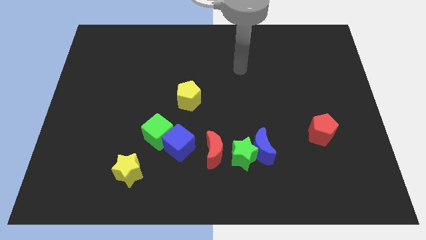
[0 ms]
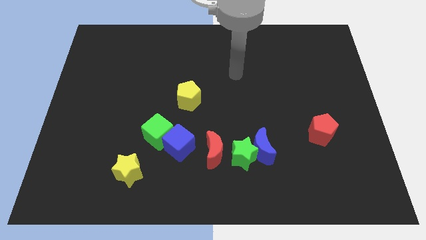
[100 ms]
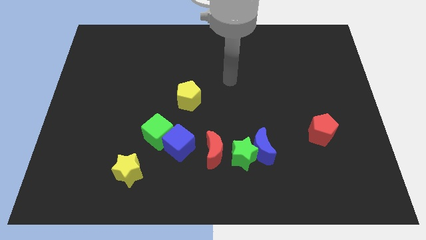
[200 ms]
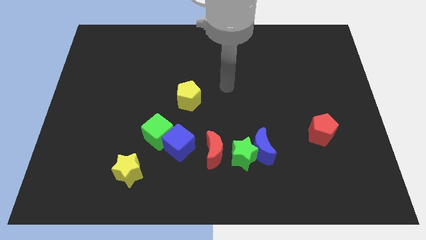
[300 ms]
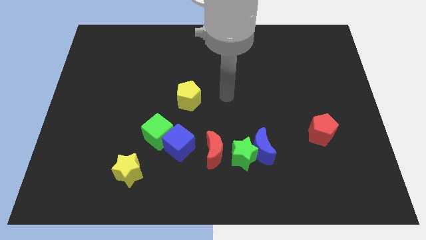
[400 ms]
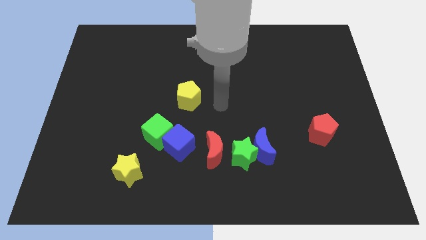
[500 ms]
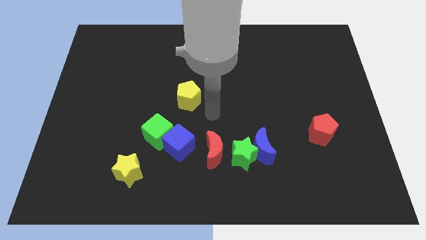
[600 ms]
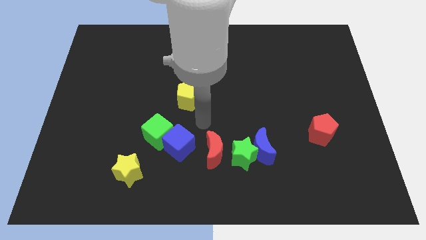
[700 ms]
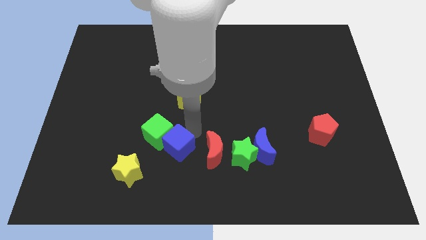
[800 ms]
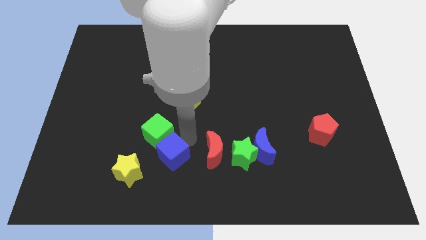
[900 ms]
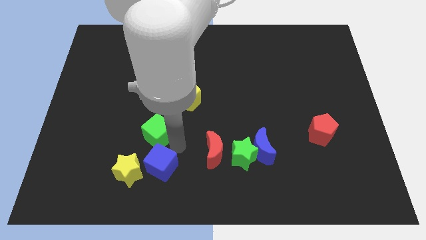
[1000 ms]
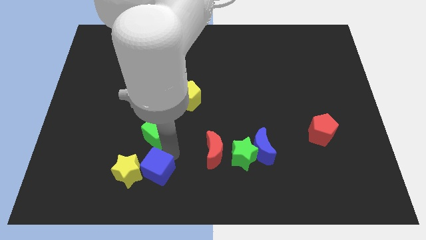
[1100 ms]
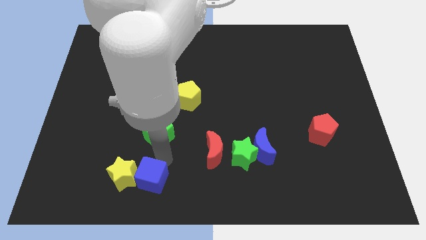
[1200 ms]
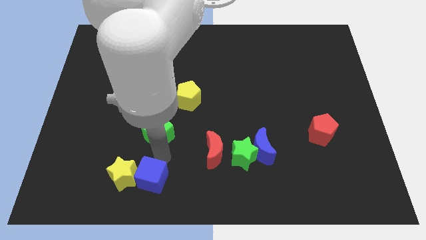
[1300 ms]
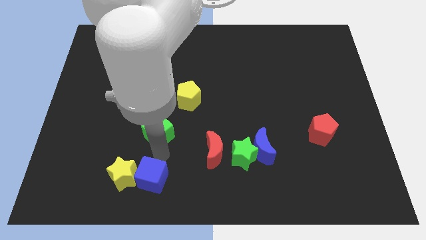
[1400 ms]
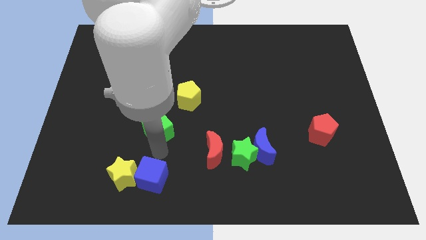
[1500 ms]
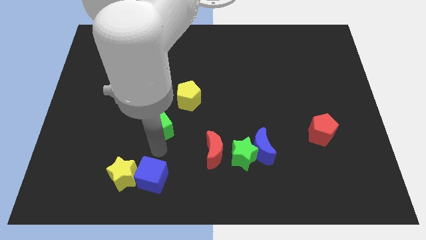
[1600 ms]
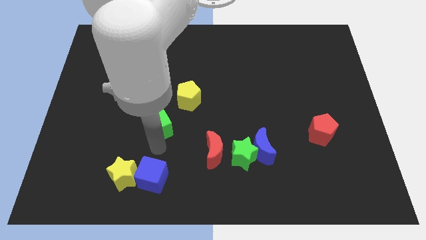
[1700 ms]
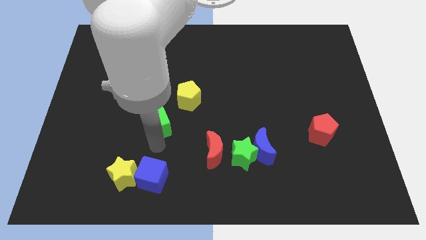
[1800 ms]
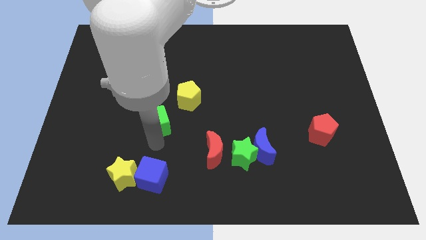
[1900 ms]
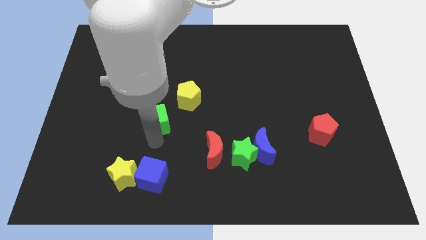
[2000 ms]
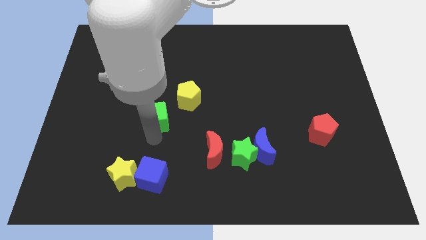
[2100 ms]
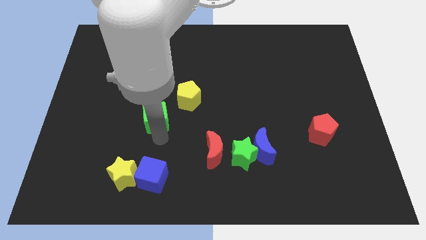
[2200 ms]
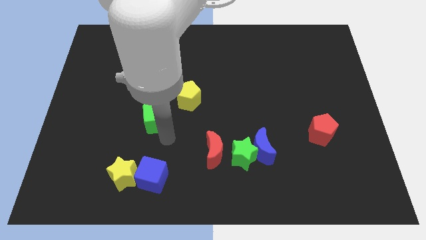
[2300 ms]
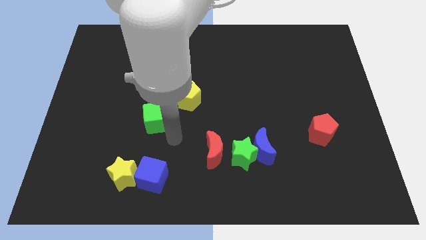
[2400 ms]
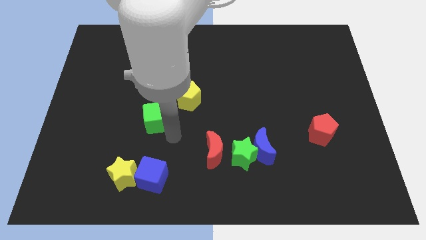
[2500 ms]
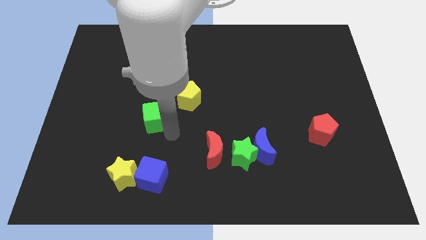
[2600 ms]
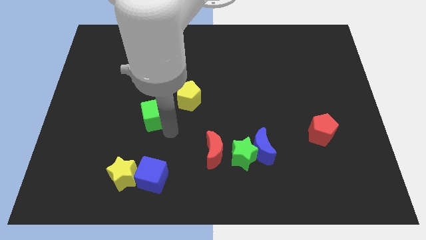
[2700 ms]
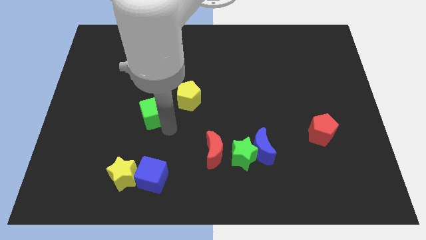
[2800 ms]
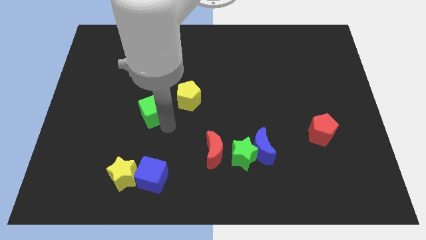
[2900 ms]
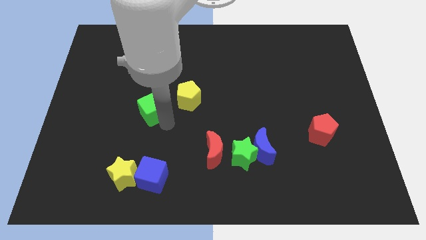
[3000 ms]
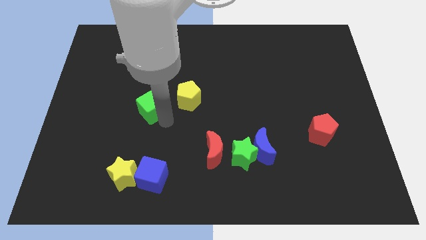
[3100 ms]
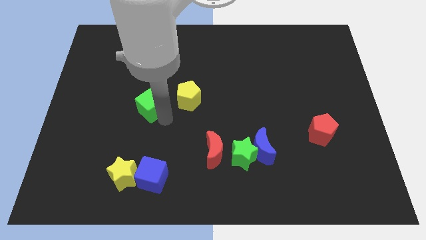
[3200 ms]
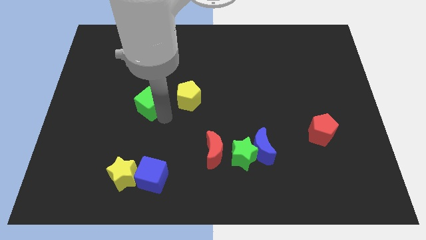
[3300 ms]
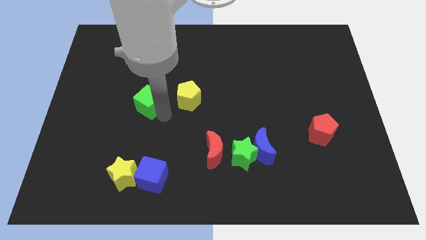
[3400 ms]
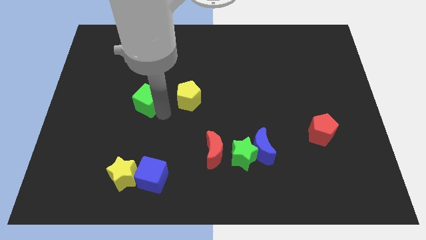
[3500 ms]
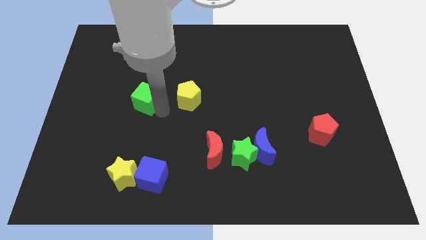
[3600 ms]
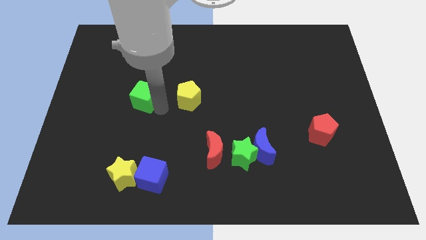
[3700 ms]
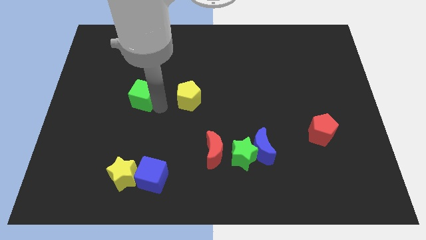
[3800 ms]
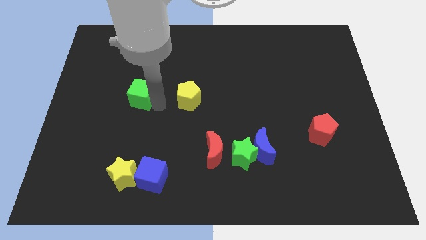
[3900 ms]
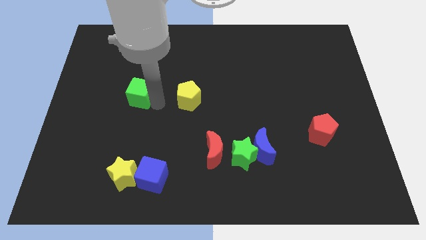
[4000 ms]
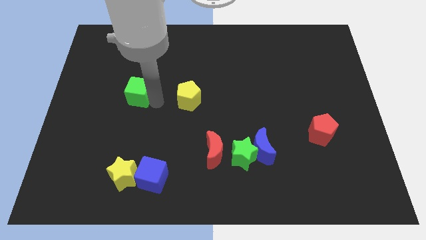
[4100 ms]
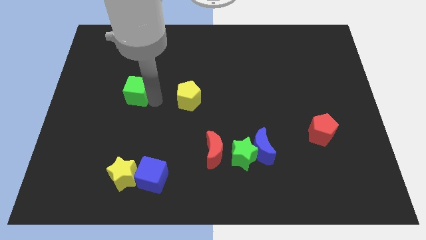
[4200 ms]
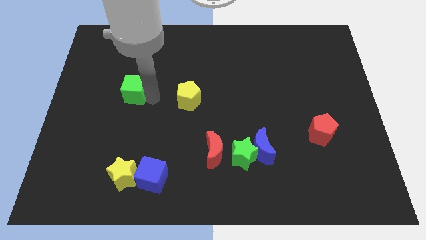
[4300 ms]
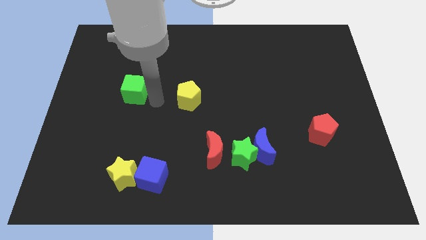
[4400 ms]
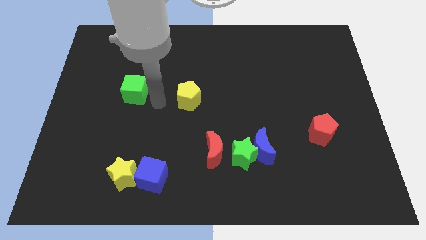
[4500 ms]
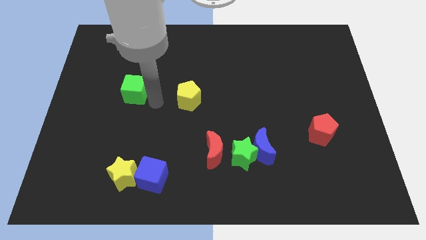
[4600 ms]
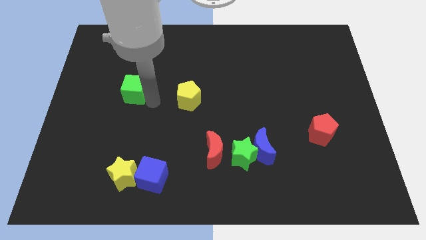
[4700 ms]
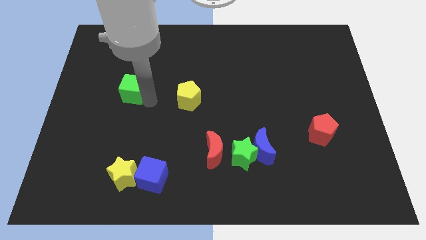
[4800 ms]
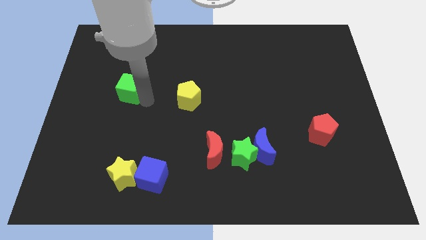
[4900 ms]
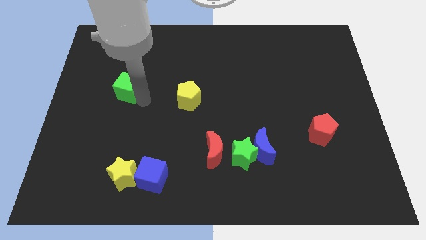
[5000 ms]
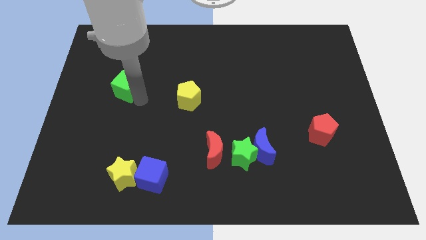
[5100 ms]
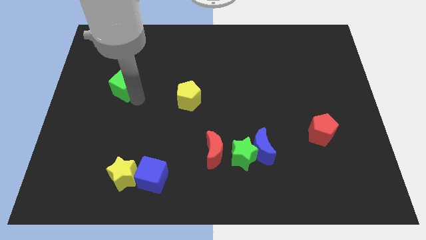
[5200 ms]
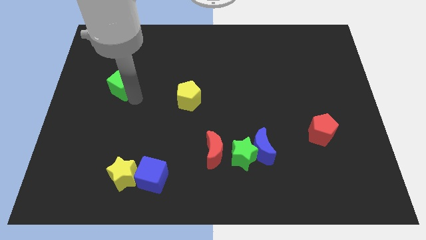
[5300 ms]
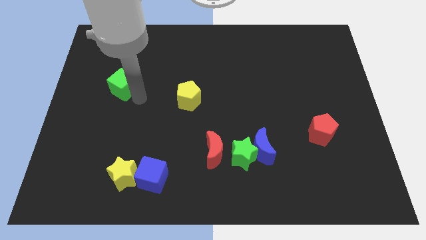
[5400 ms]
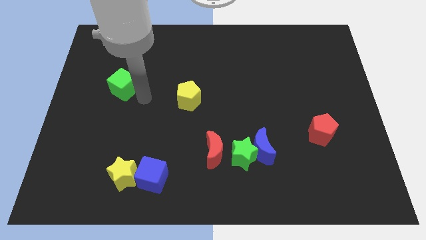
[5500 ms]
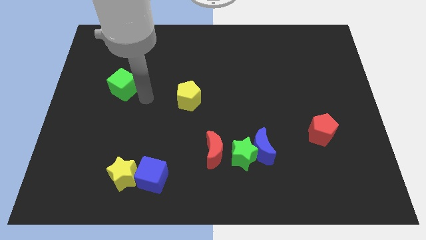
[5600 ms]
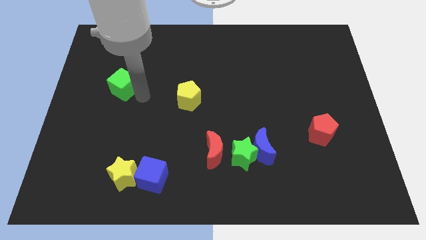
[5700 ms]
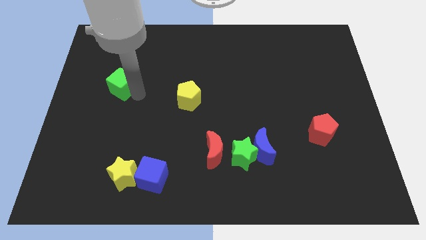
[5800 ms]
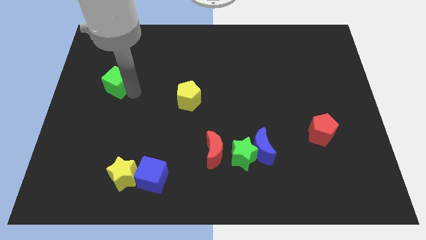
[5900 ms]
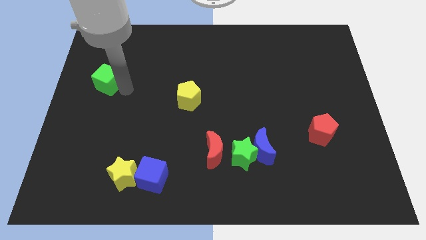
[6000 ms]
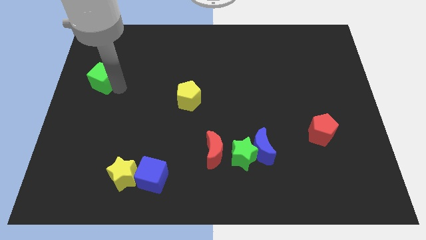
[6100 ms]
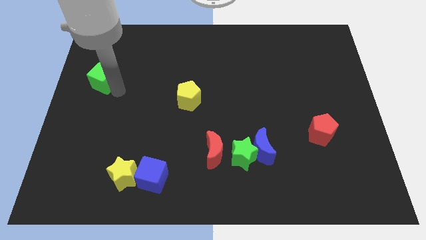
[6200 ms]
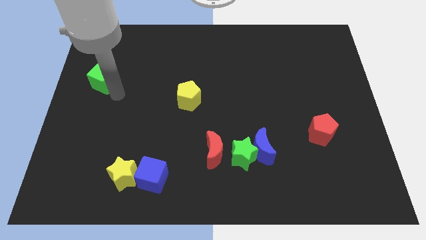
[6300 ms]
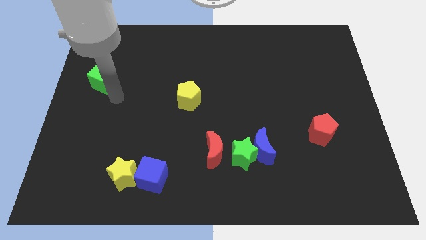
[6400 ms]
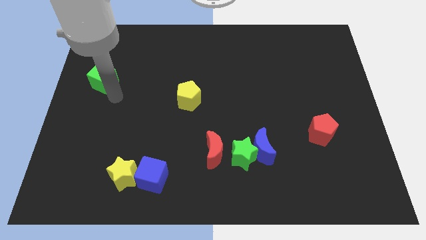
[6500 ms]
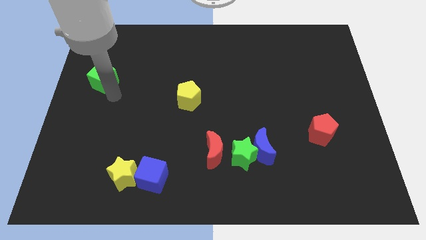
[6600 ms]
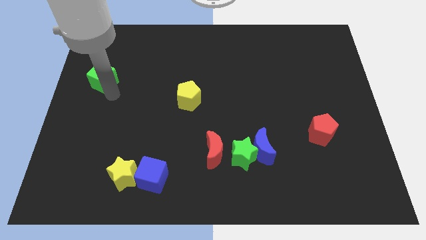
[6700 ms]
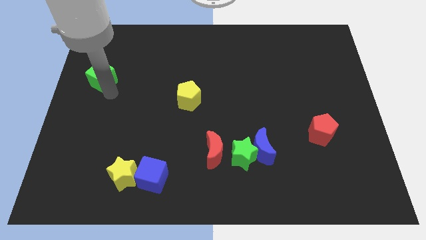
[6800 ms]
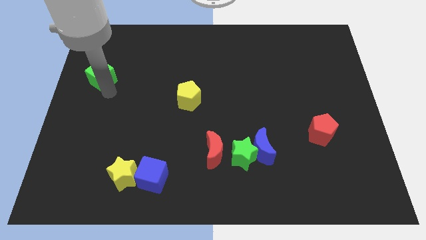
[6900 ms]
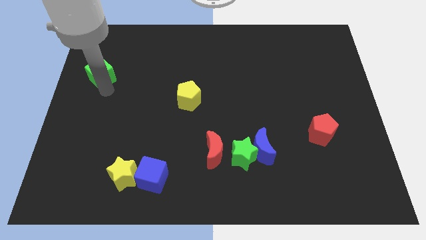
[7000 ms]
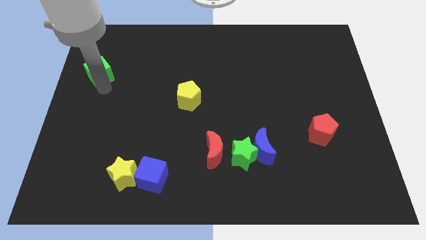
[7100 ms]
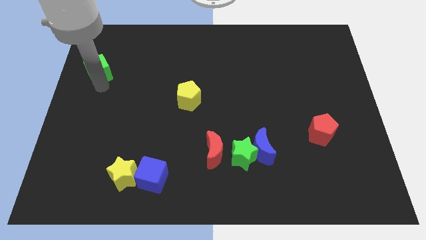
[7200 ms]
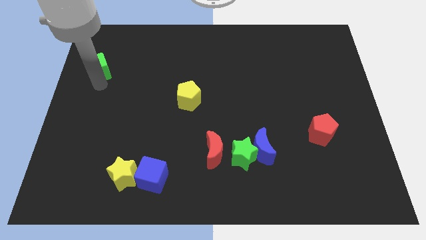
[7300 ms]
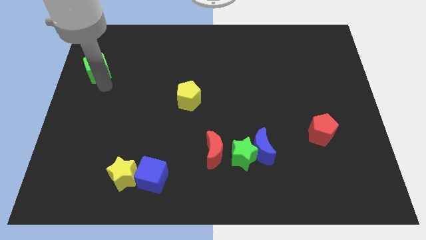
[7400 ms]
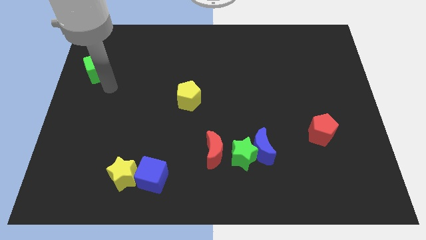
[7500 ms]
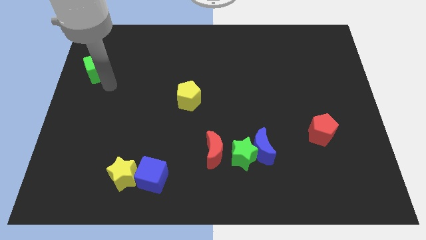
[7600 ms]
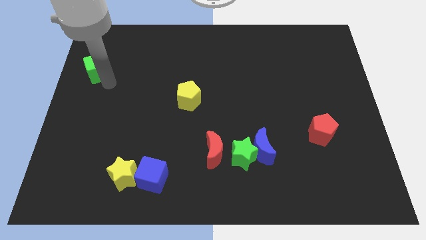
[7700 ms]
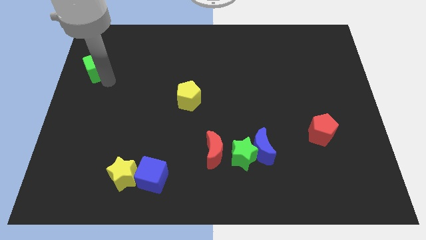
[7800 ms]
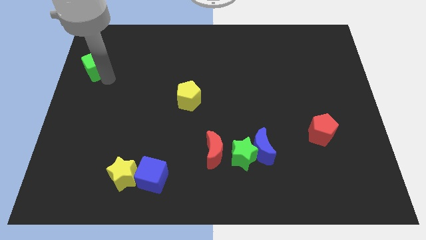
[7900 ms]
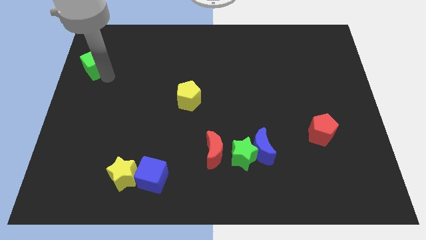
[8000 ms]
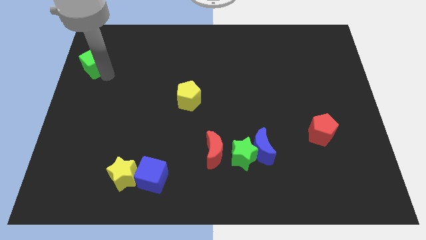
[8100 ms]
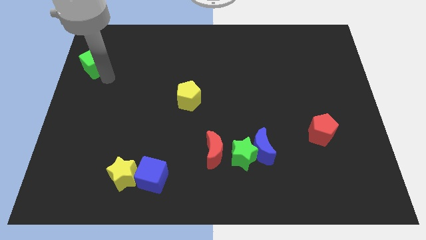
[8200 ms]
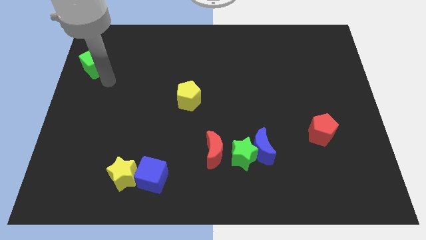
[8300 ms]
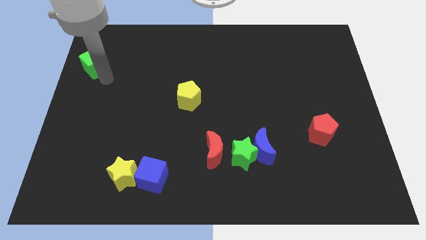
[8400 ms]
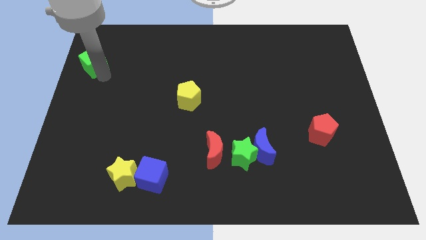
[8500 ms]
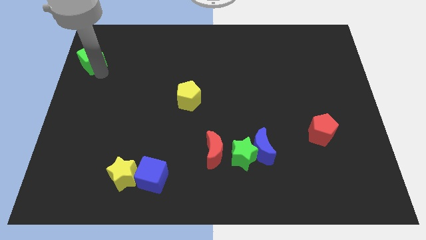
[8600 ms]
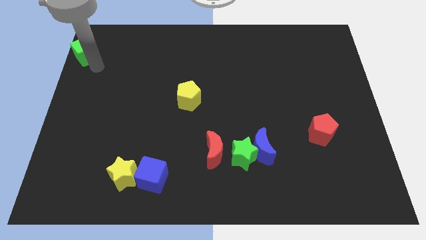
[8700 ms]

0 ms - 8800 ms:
put the green cube to the top left corner
